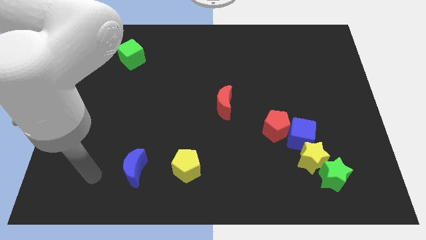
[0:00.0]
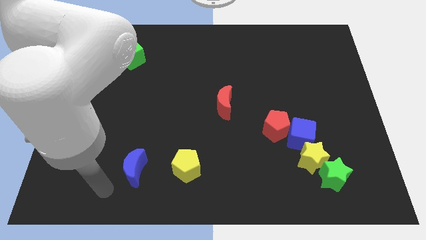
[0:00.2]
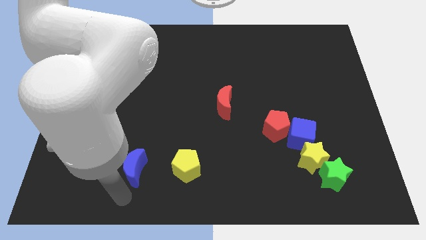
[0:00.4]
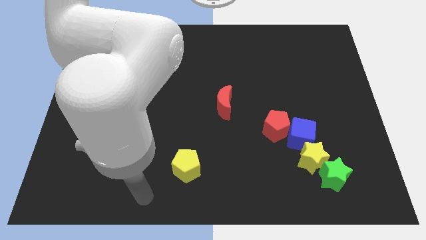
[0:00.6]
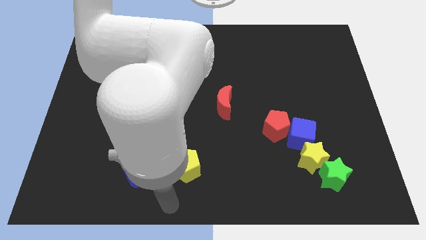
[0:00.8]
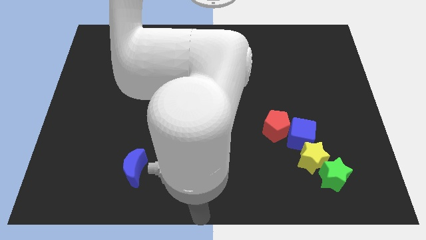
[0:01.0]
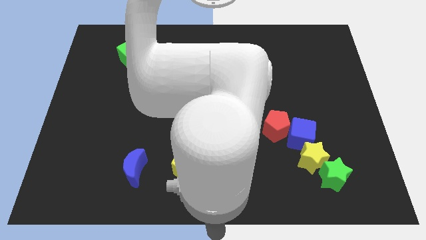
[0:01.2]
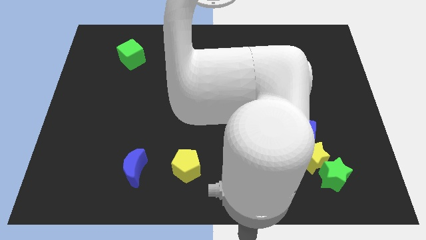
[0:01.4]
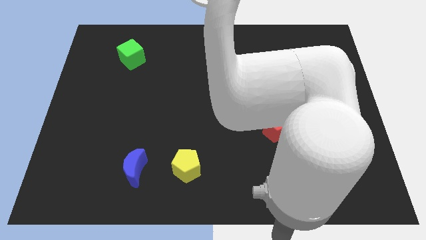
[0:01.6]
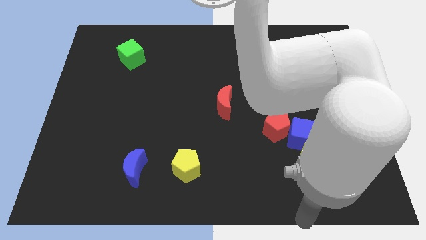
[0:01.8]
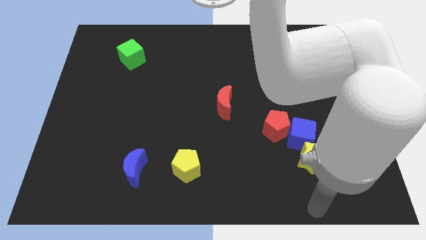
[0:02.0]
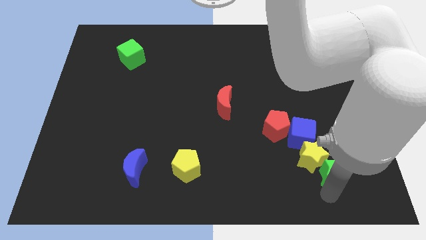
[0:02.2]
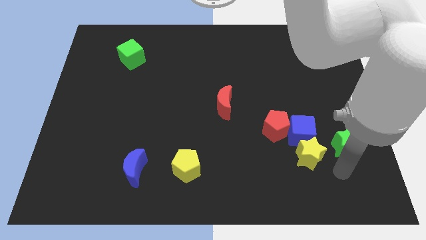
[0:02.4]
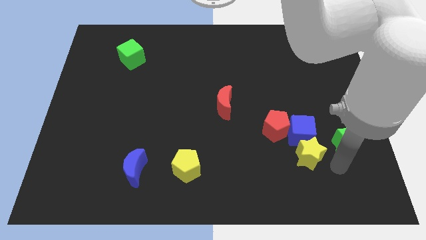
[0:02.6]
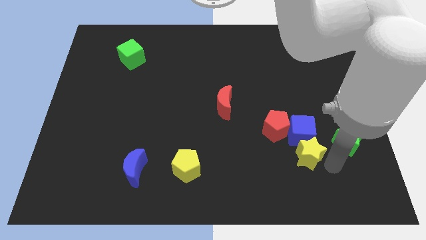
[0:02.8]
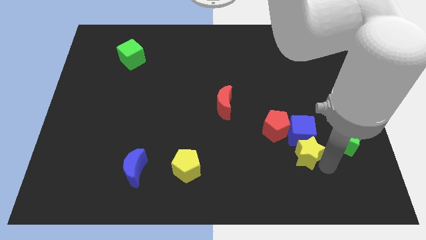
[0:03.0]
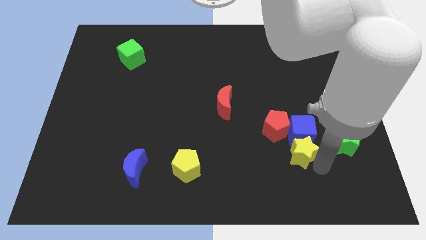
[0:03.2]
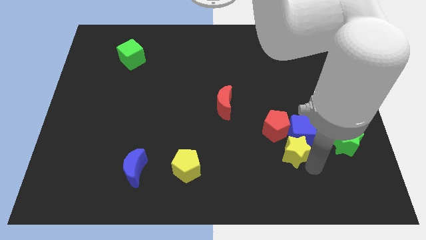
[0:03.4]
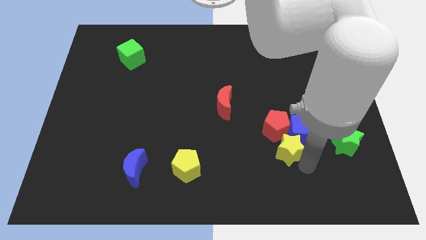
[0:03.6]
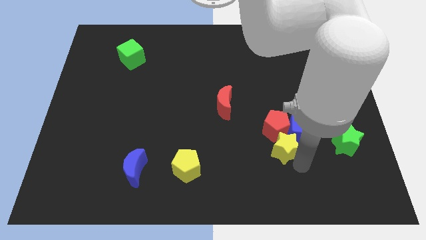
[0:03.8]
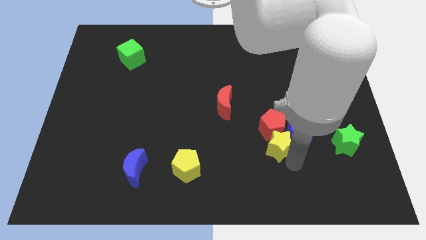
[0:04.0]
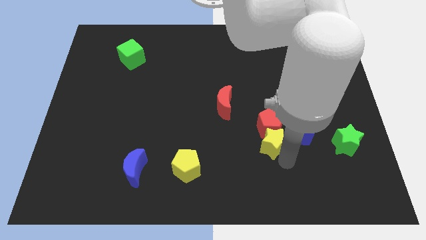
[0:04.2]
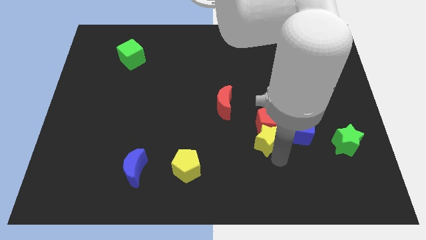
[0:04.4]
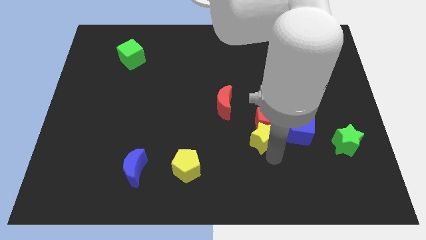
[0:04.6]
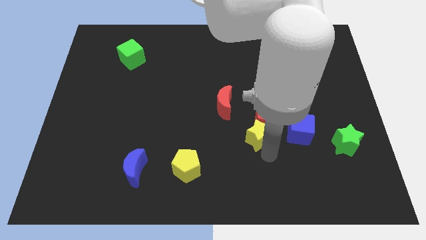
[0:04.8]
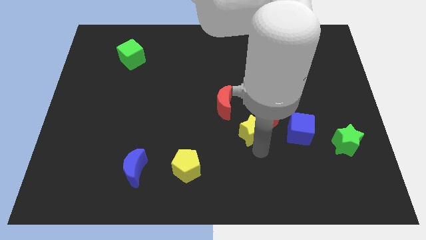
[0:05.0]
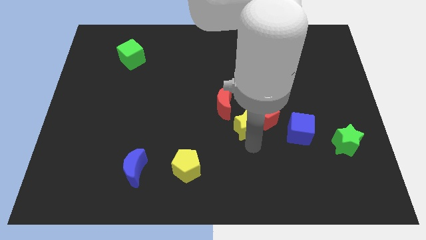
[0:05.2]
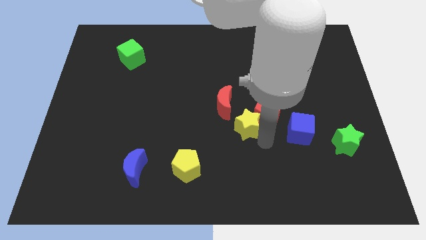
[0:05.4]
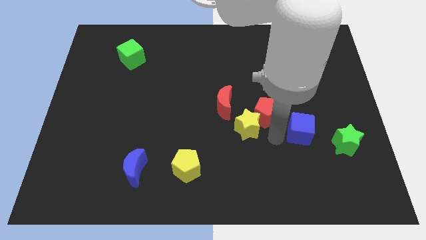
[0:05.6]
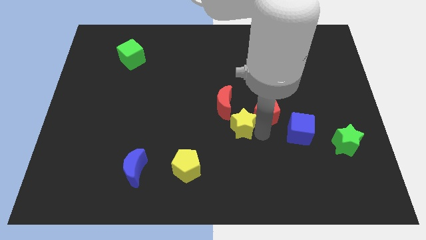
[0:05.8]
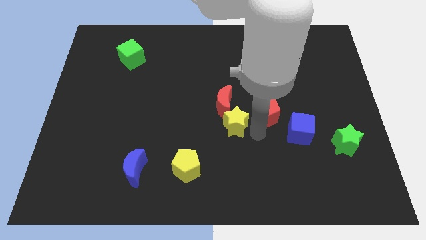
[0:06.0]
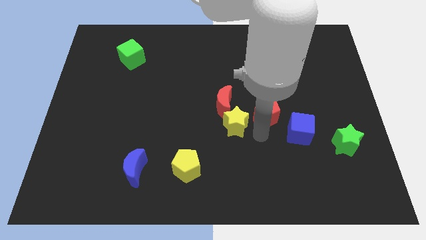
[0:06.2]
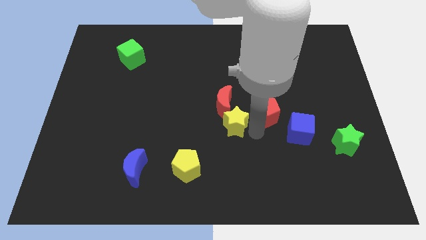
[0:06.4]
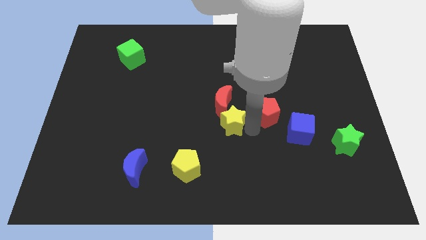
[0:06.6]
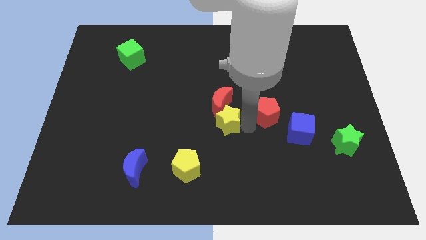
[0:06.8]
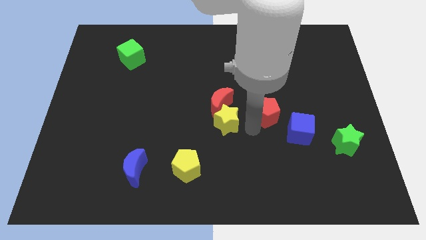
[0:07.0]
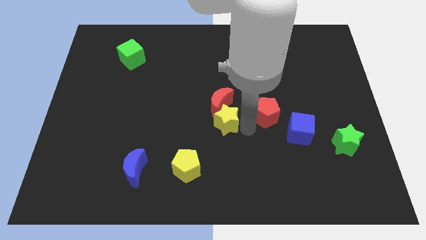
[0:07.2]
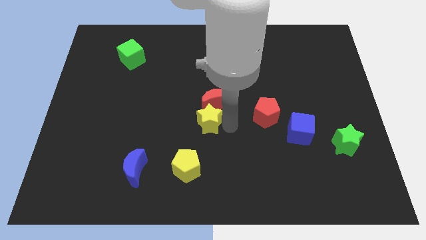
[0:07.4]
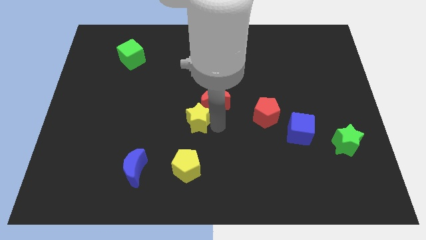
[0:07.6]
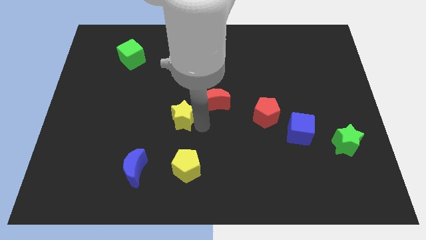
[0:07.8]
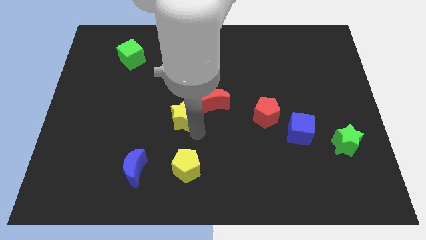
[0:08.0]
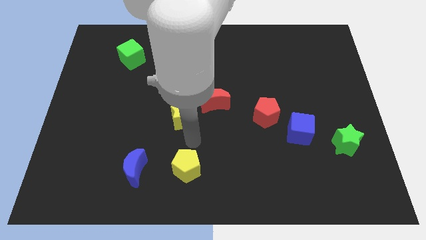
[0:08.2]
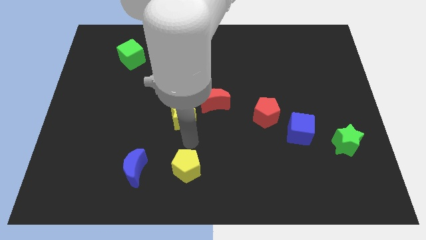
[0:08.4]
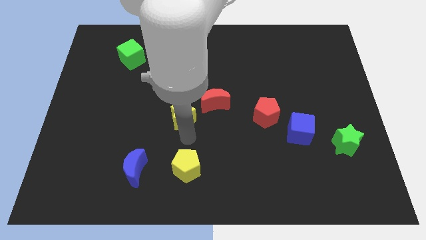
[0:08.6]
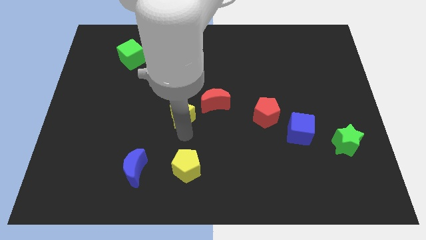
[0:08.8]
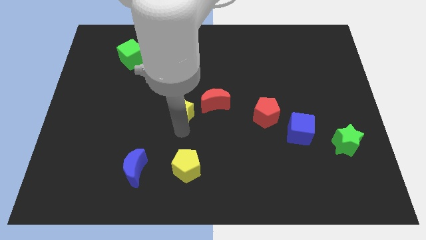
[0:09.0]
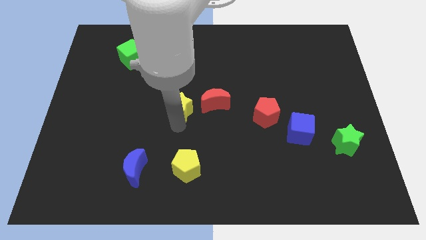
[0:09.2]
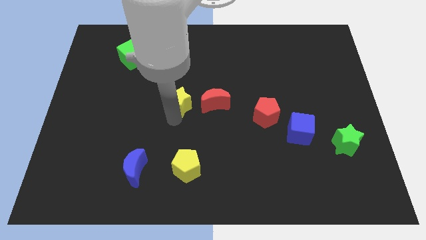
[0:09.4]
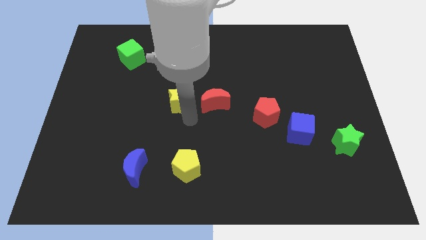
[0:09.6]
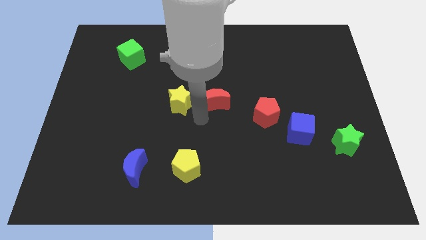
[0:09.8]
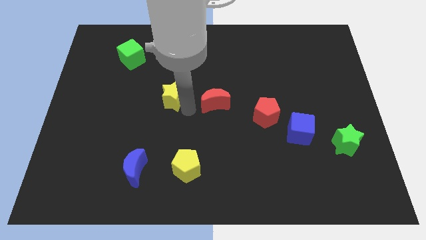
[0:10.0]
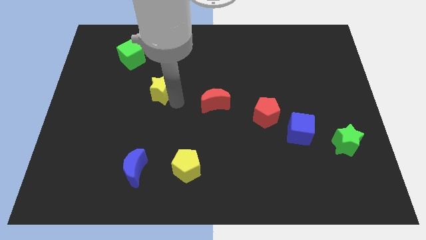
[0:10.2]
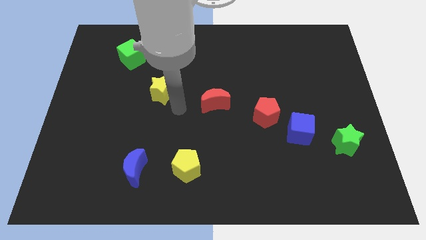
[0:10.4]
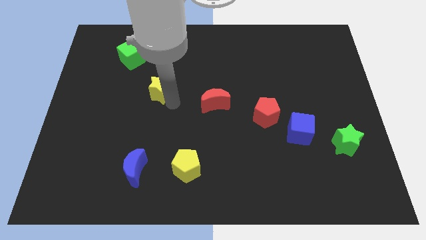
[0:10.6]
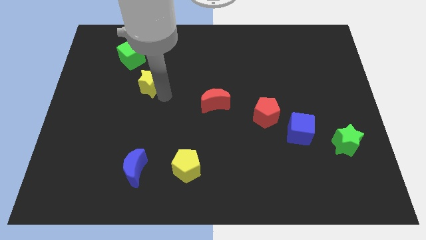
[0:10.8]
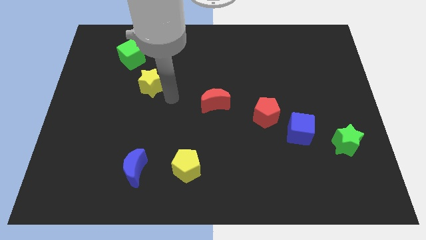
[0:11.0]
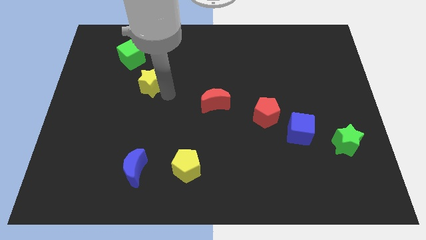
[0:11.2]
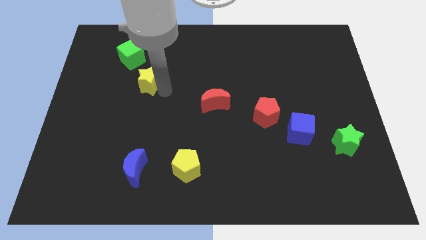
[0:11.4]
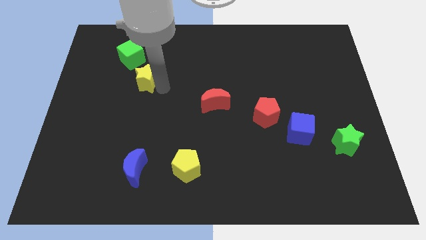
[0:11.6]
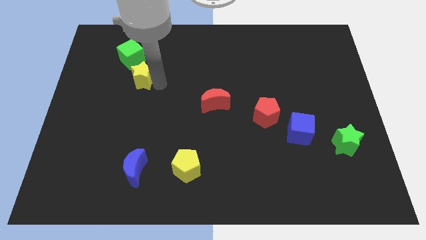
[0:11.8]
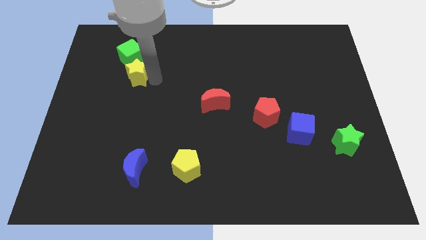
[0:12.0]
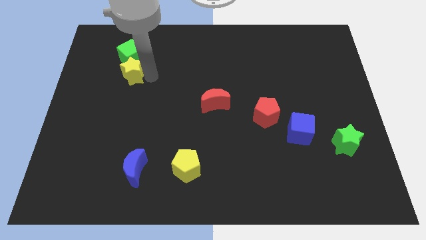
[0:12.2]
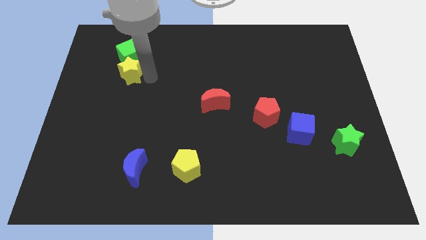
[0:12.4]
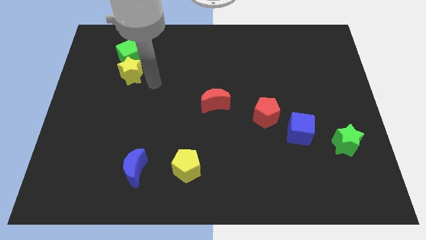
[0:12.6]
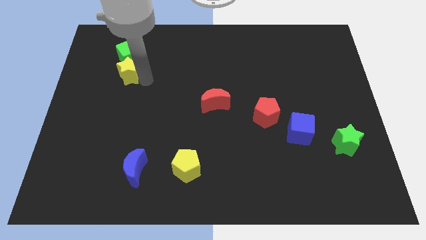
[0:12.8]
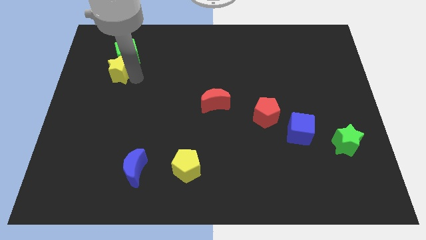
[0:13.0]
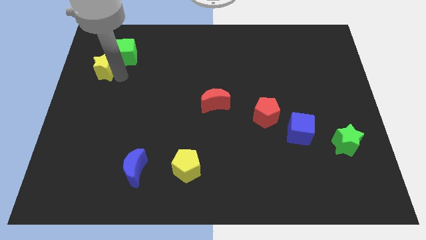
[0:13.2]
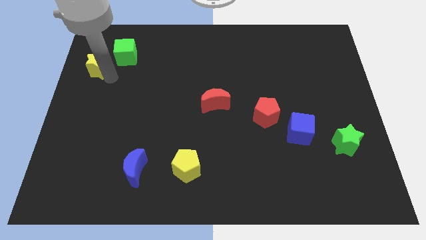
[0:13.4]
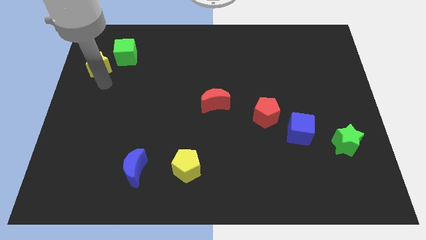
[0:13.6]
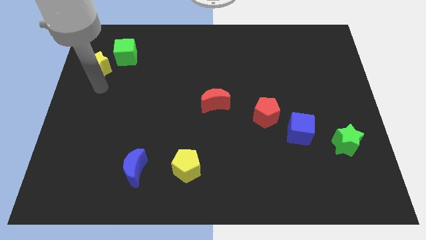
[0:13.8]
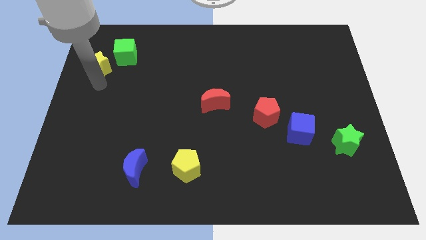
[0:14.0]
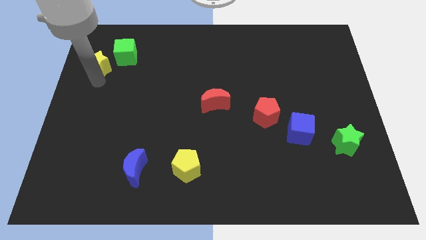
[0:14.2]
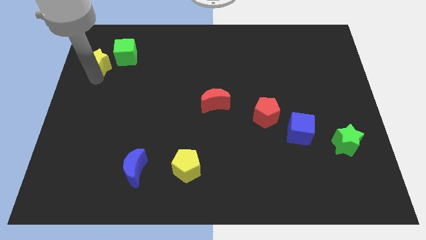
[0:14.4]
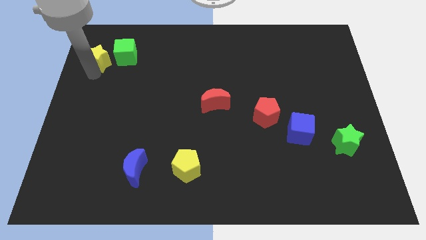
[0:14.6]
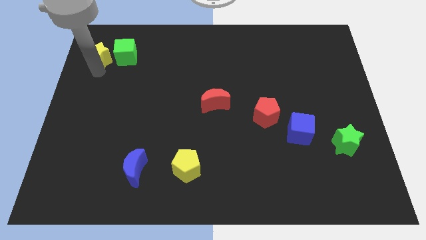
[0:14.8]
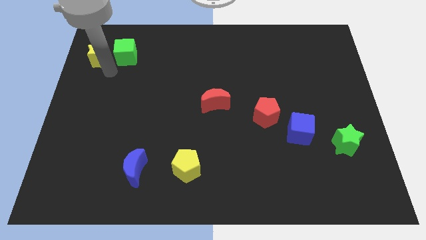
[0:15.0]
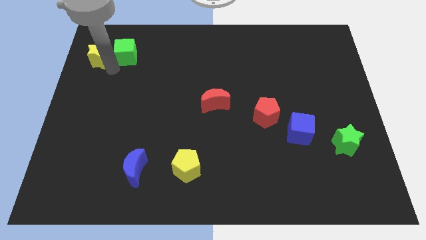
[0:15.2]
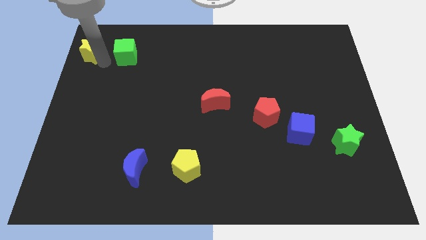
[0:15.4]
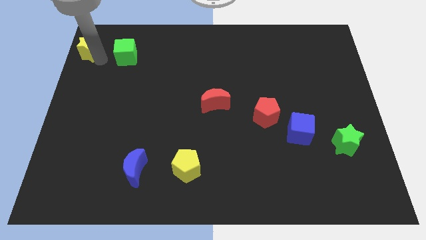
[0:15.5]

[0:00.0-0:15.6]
slide the yellow star to the upper left corner
